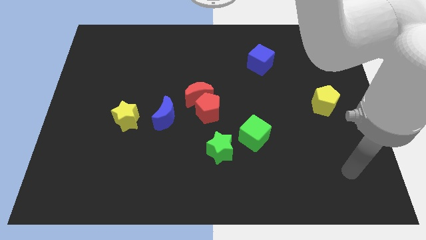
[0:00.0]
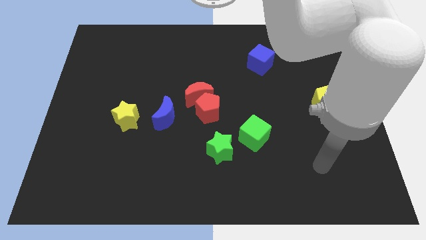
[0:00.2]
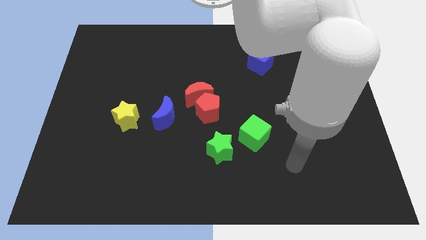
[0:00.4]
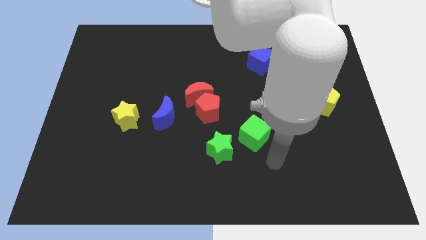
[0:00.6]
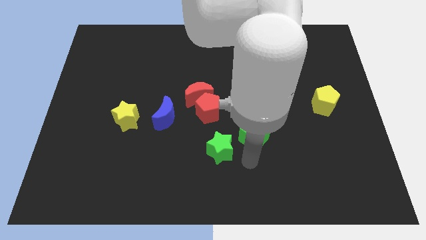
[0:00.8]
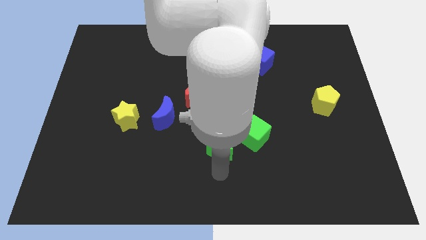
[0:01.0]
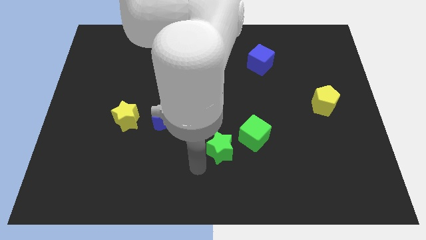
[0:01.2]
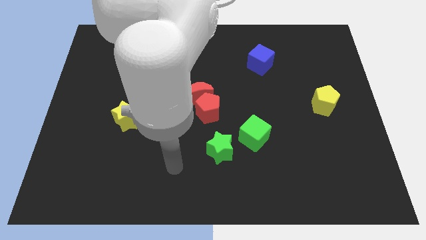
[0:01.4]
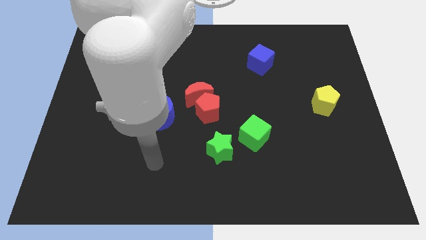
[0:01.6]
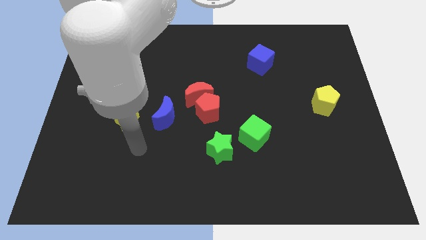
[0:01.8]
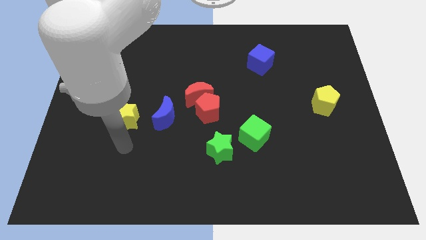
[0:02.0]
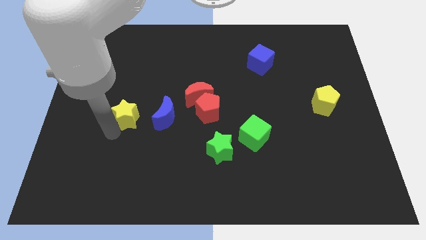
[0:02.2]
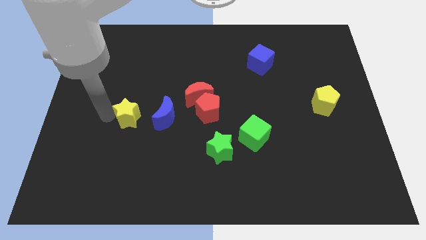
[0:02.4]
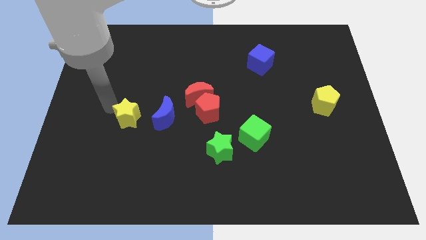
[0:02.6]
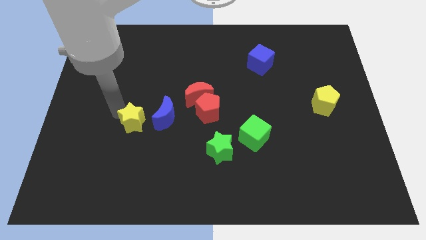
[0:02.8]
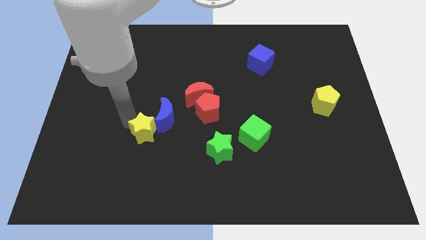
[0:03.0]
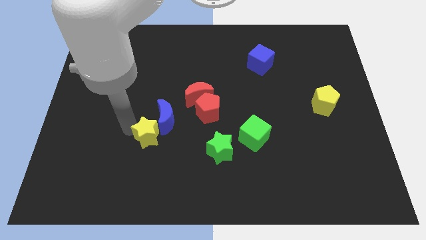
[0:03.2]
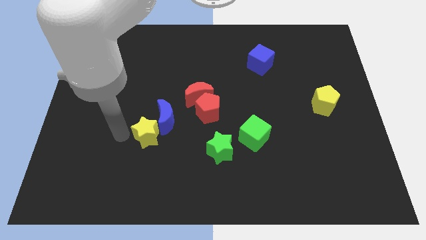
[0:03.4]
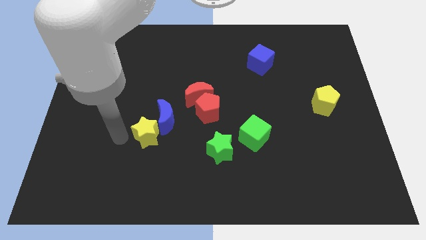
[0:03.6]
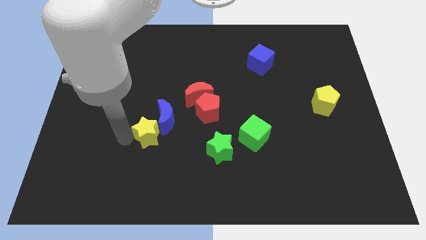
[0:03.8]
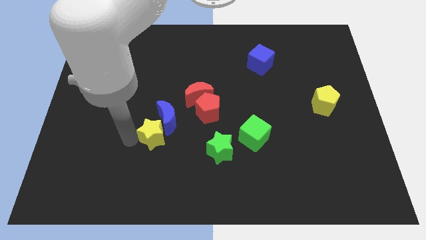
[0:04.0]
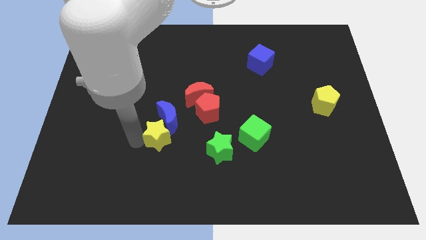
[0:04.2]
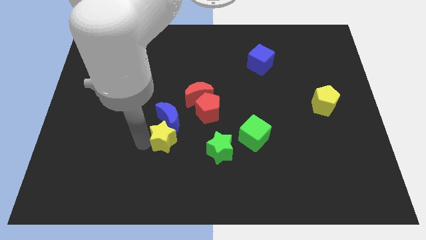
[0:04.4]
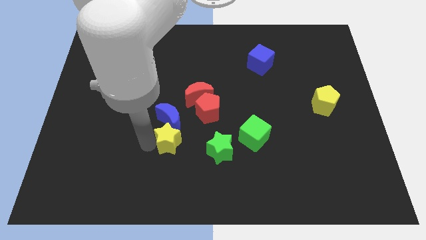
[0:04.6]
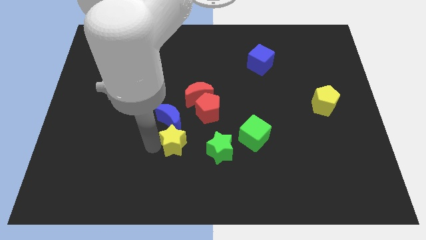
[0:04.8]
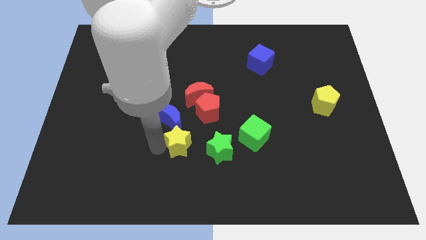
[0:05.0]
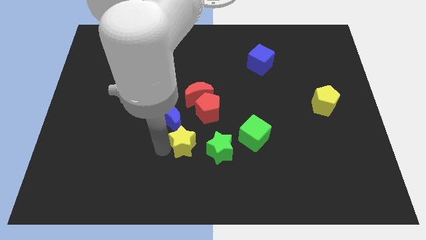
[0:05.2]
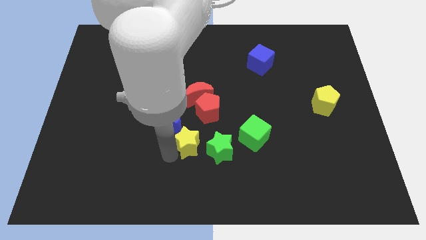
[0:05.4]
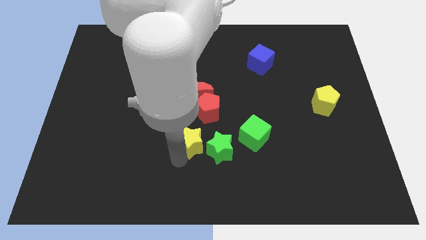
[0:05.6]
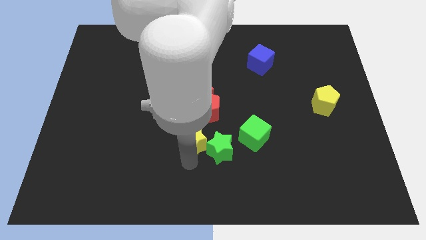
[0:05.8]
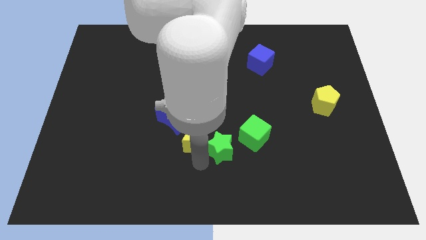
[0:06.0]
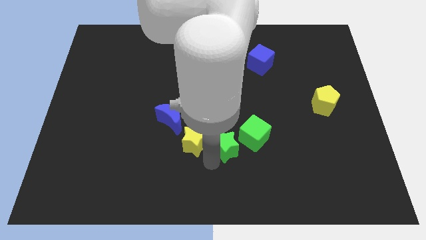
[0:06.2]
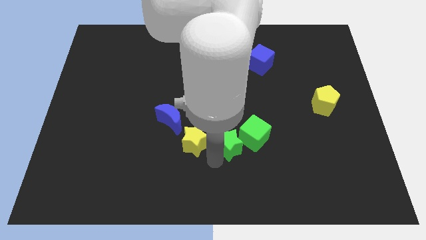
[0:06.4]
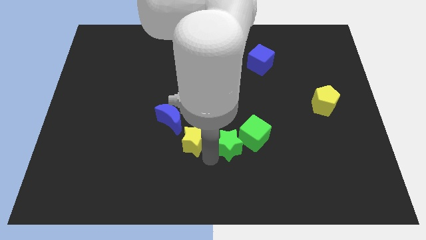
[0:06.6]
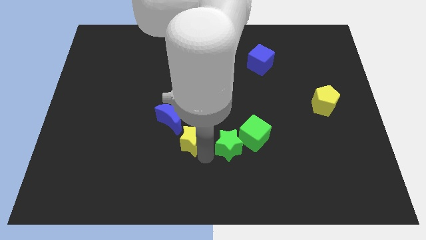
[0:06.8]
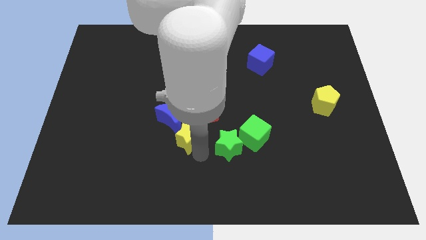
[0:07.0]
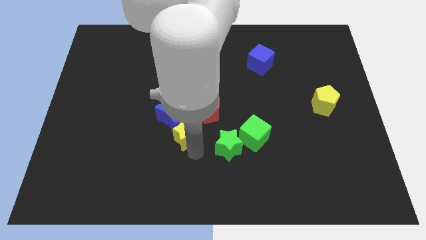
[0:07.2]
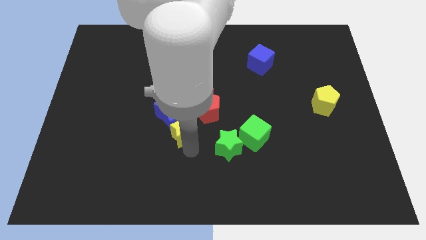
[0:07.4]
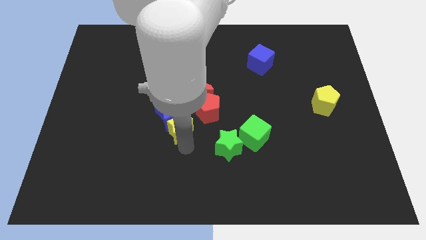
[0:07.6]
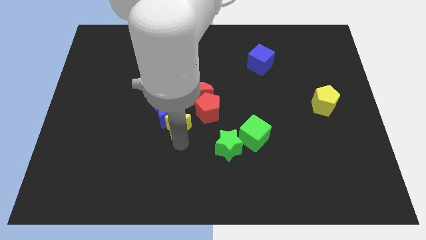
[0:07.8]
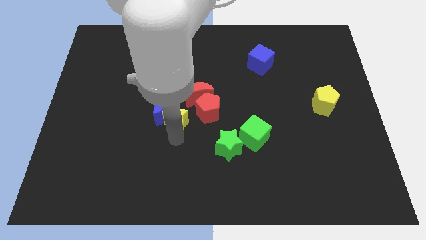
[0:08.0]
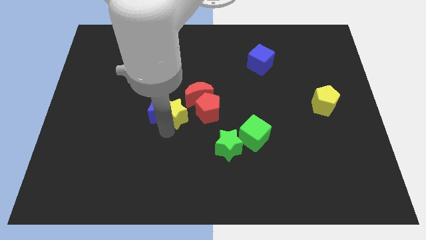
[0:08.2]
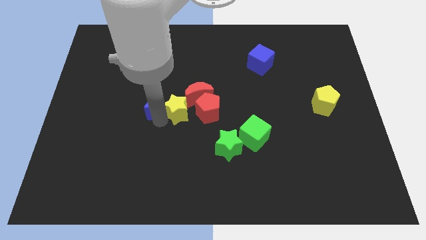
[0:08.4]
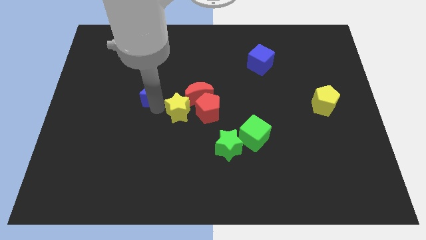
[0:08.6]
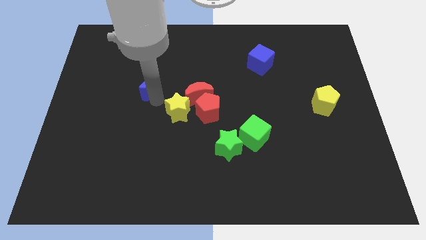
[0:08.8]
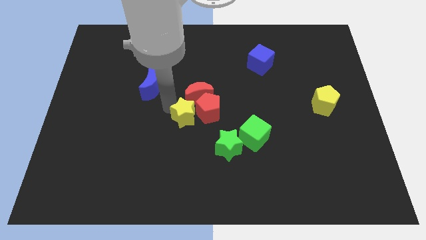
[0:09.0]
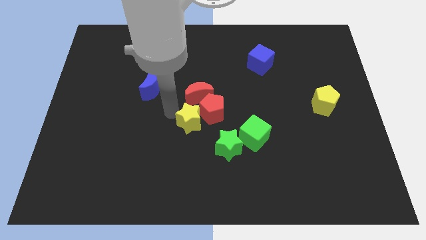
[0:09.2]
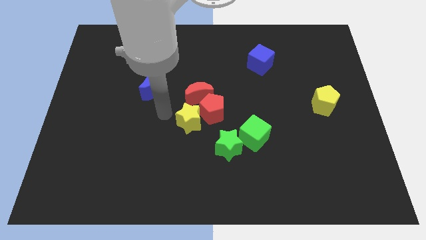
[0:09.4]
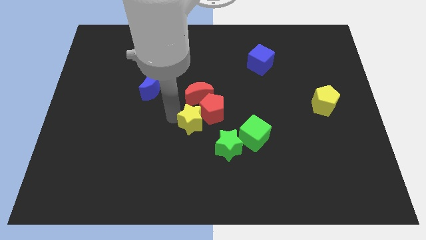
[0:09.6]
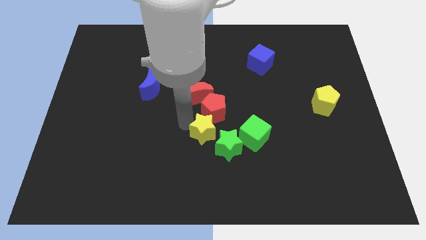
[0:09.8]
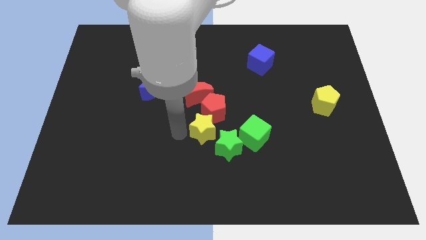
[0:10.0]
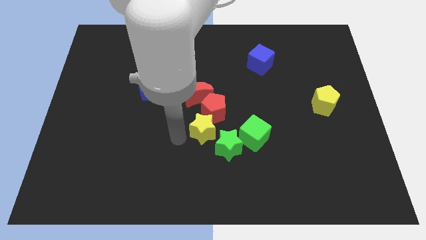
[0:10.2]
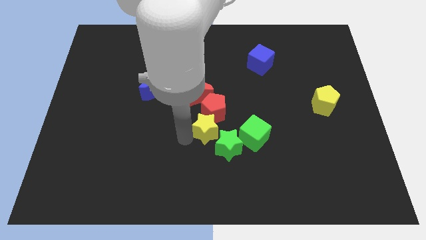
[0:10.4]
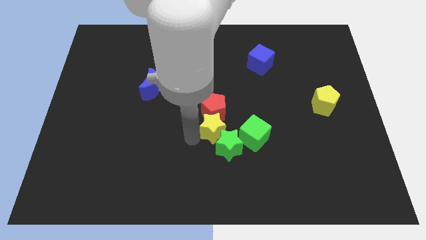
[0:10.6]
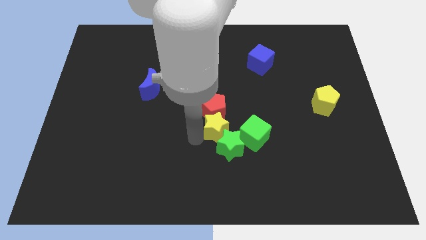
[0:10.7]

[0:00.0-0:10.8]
push the yellow star to the right

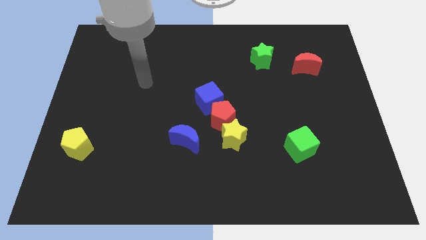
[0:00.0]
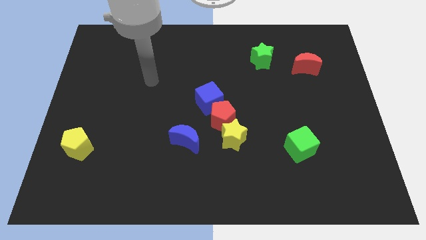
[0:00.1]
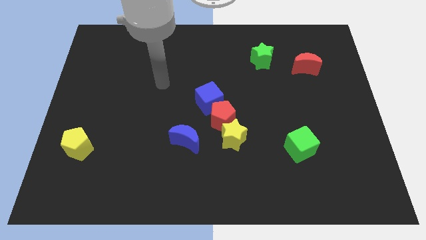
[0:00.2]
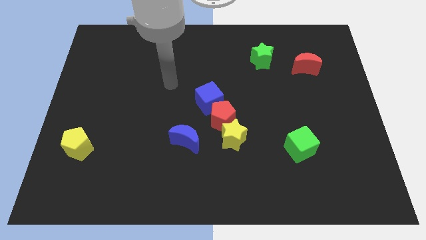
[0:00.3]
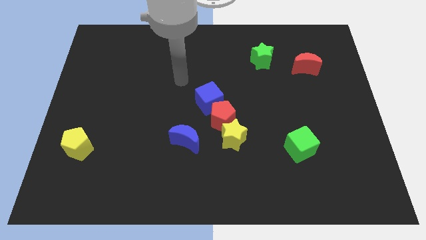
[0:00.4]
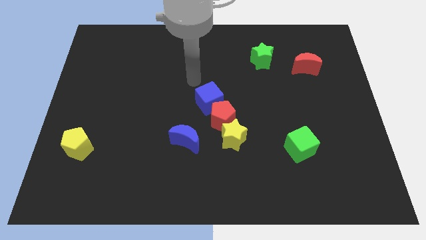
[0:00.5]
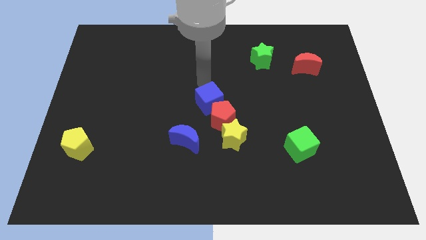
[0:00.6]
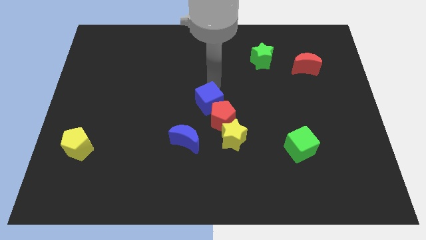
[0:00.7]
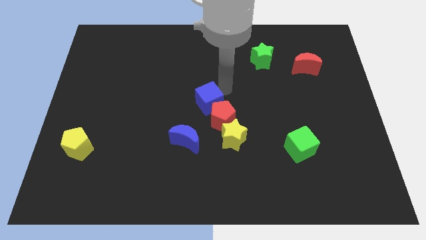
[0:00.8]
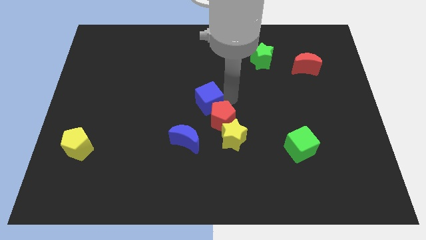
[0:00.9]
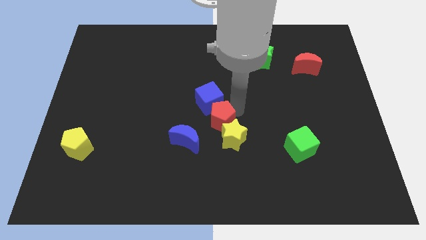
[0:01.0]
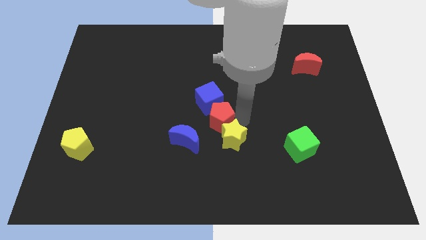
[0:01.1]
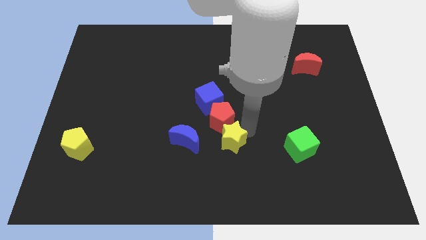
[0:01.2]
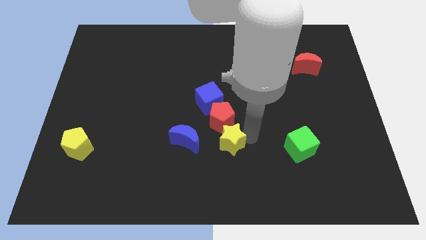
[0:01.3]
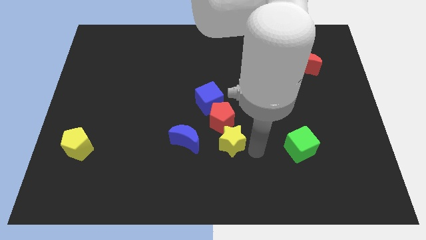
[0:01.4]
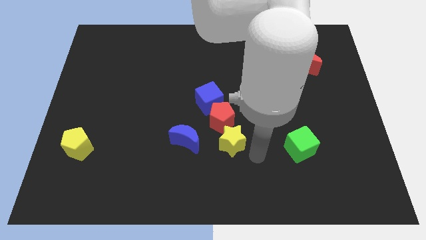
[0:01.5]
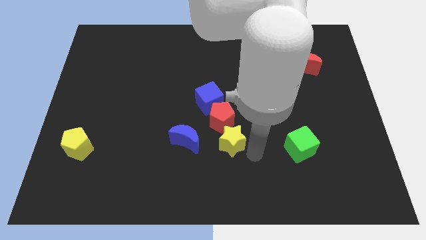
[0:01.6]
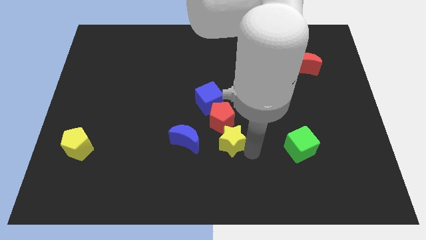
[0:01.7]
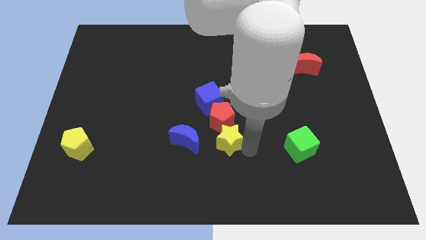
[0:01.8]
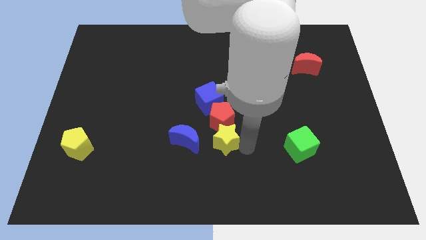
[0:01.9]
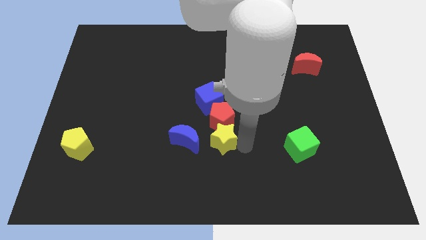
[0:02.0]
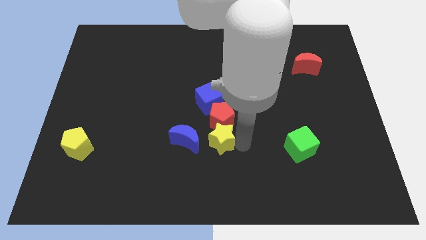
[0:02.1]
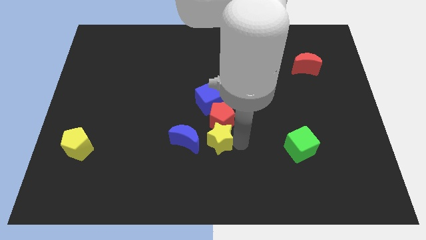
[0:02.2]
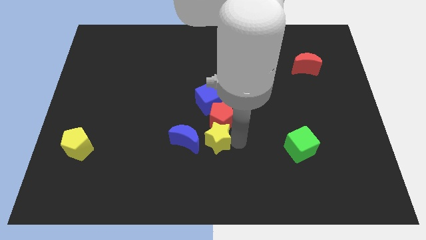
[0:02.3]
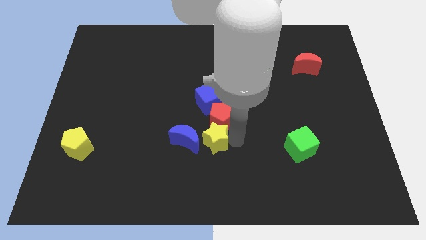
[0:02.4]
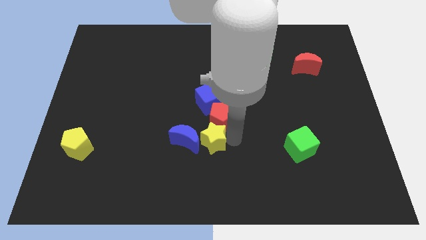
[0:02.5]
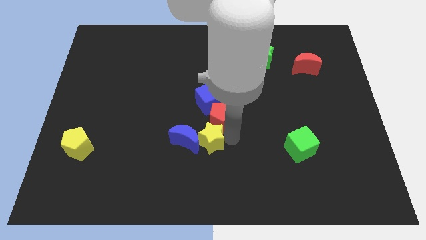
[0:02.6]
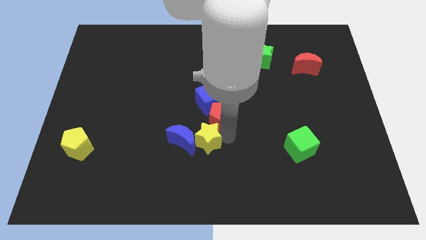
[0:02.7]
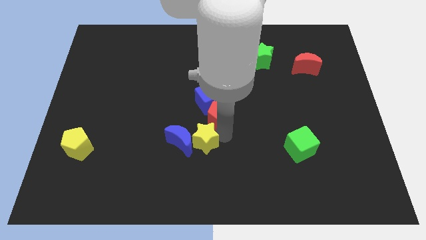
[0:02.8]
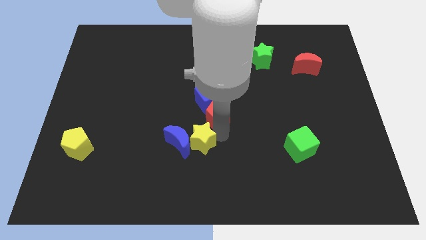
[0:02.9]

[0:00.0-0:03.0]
push the yellow star to the left a little
